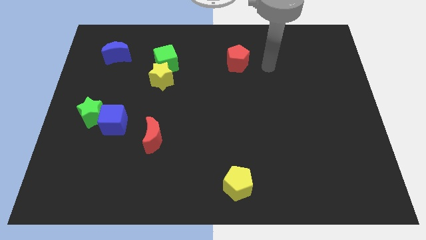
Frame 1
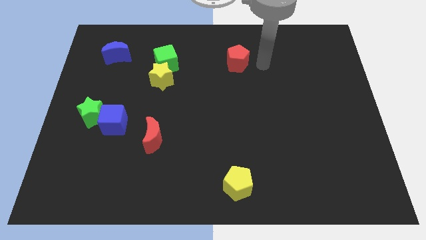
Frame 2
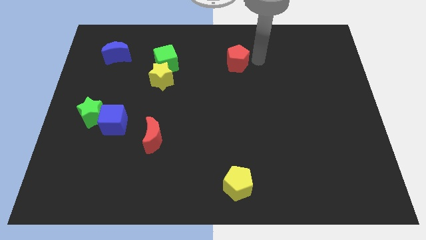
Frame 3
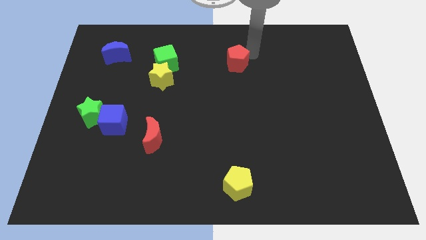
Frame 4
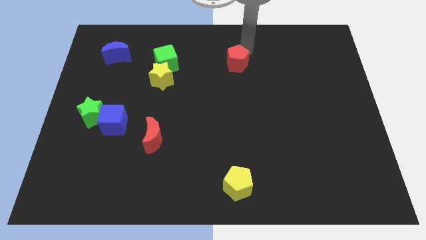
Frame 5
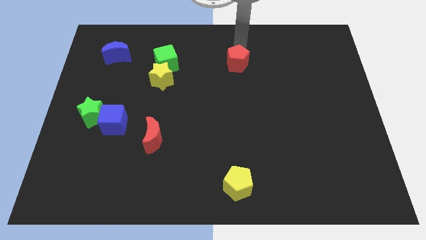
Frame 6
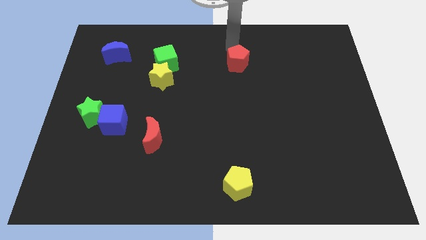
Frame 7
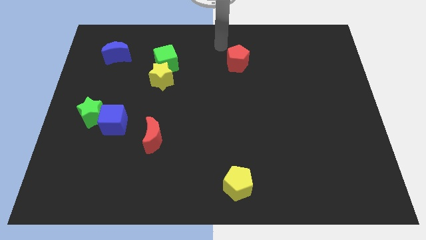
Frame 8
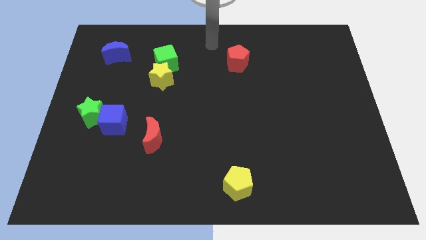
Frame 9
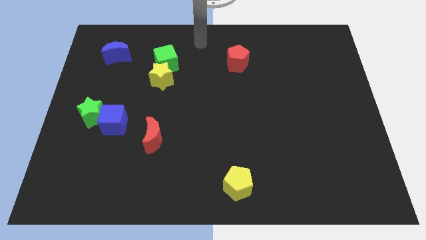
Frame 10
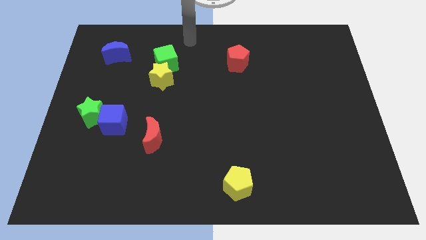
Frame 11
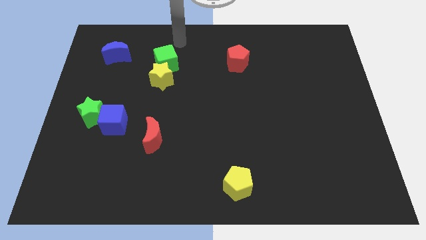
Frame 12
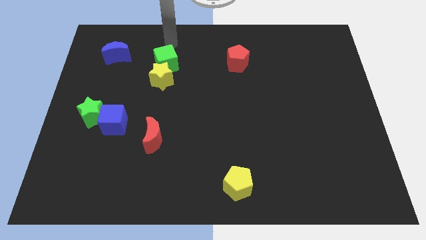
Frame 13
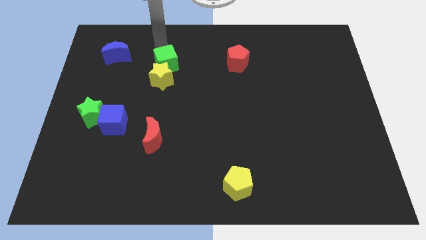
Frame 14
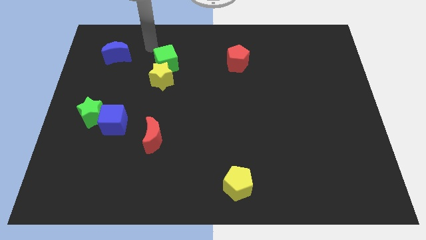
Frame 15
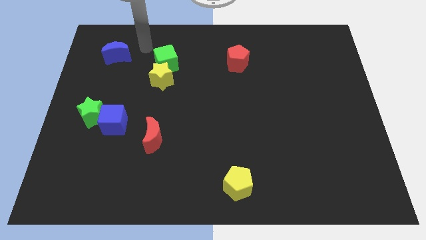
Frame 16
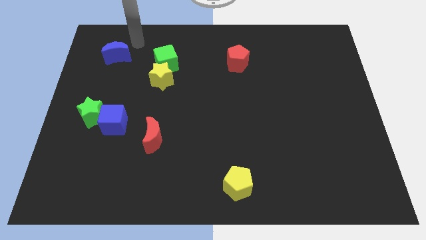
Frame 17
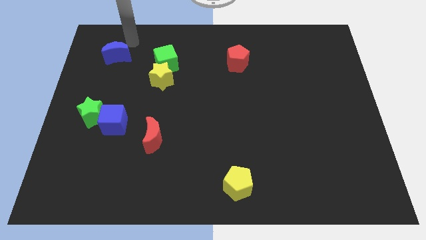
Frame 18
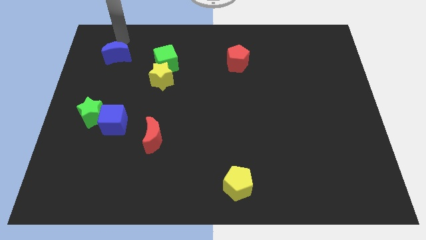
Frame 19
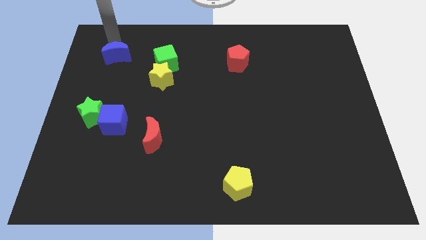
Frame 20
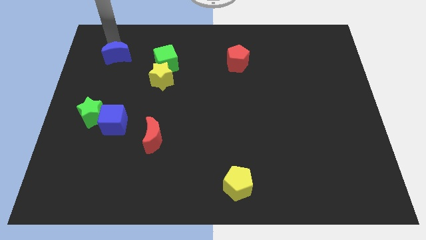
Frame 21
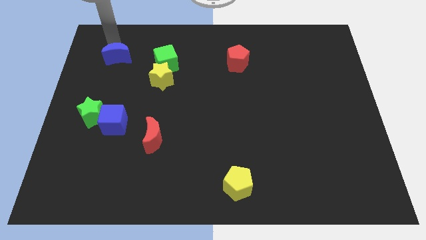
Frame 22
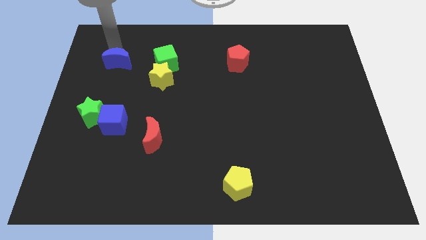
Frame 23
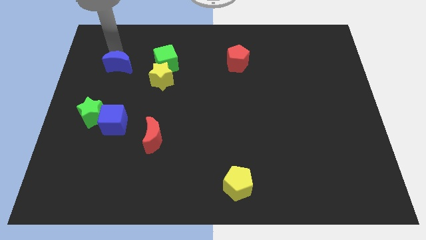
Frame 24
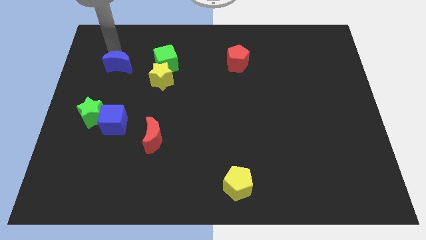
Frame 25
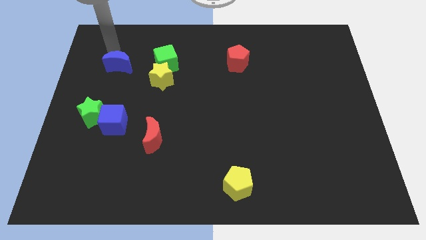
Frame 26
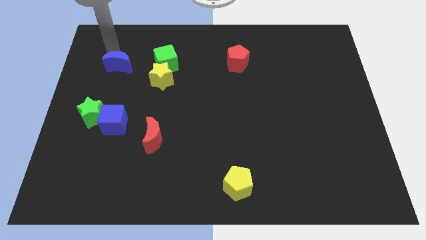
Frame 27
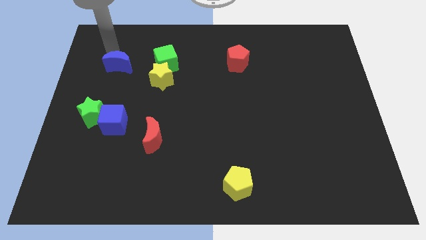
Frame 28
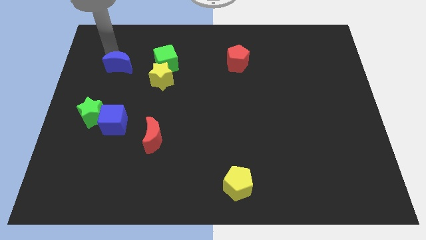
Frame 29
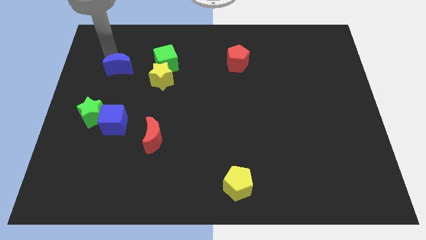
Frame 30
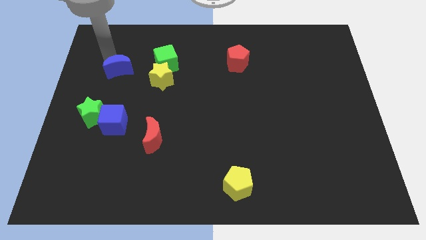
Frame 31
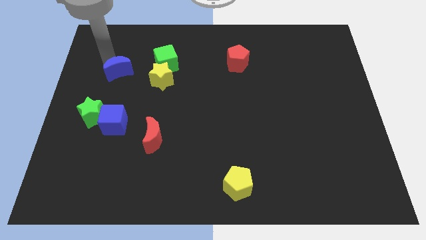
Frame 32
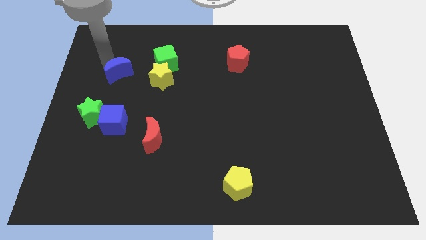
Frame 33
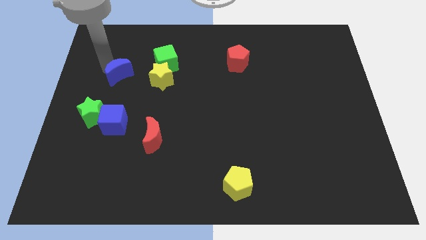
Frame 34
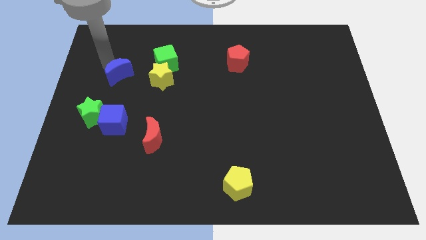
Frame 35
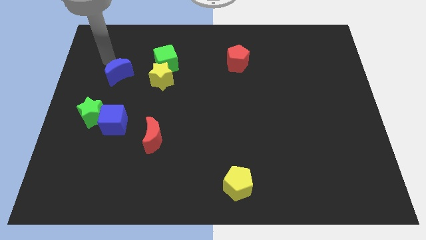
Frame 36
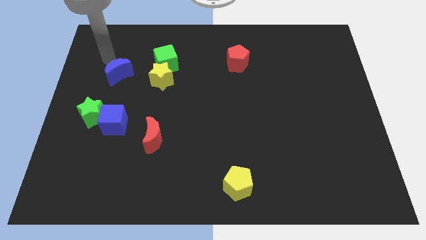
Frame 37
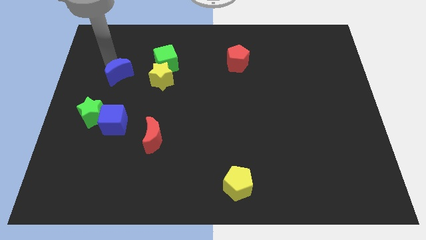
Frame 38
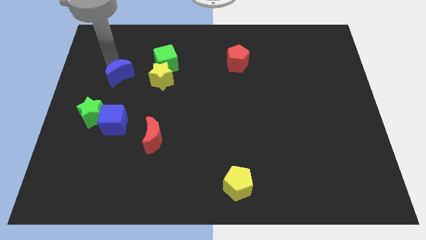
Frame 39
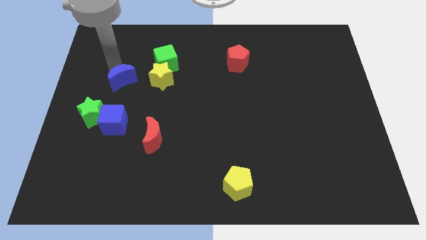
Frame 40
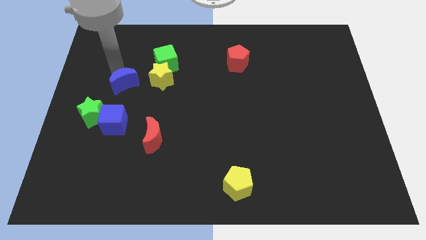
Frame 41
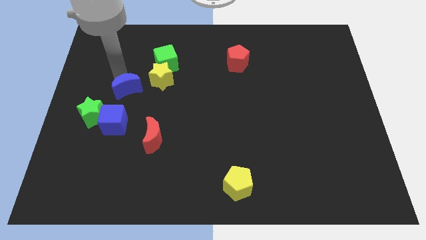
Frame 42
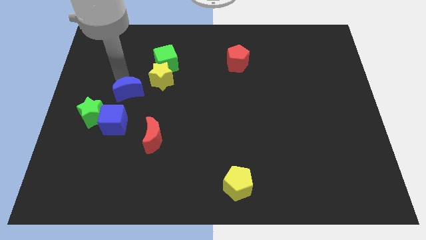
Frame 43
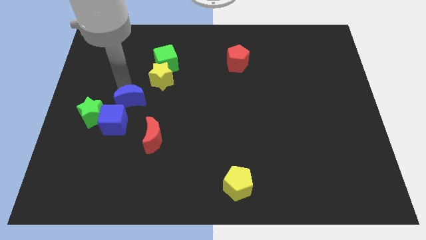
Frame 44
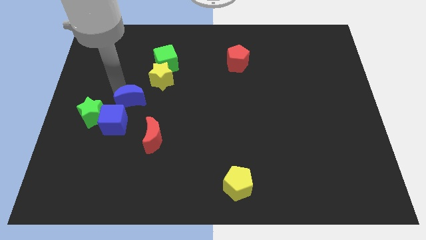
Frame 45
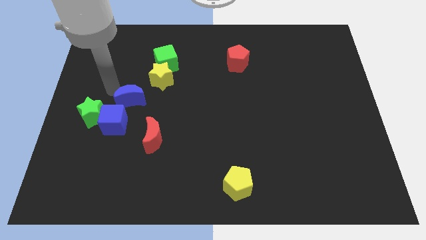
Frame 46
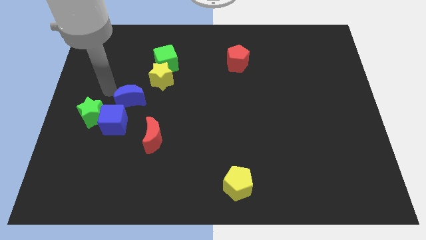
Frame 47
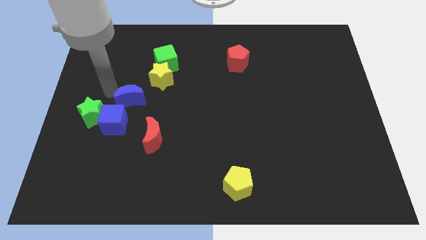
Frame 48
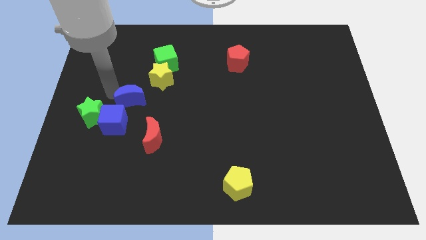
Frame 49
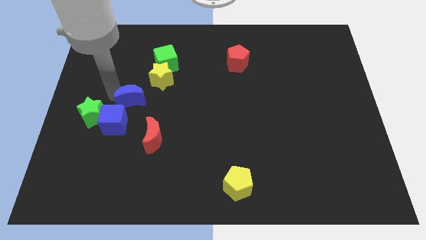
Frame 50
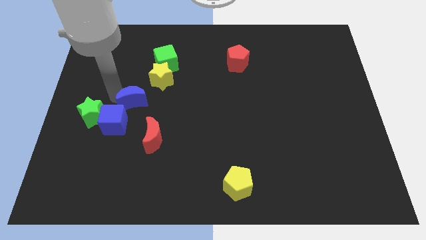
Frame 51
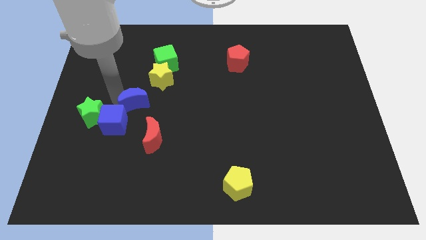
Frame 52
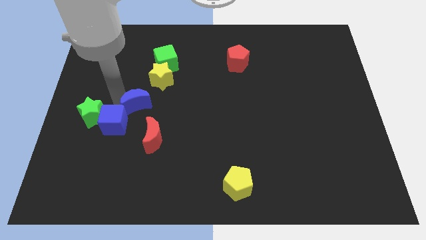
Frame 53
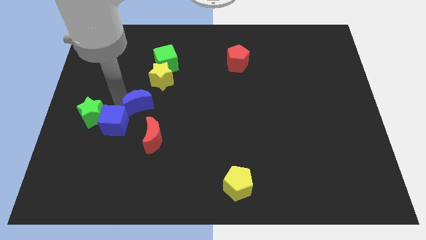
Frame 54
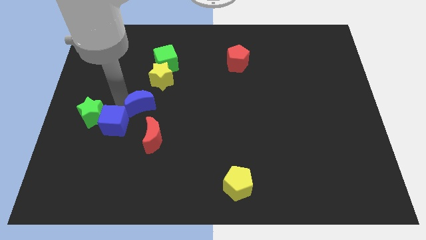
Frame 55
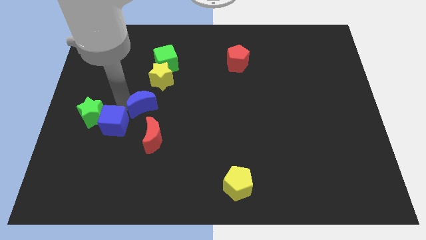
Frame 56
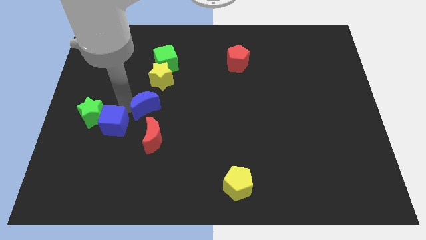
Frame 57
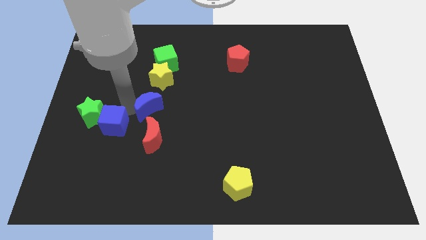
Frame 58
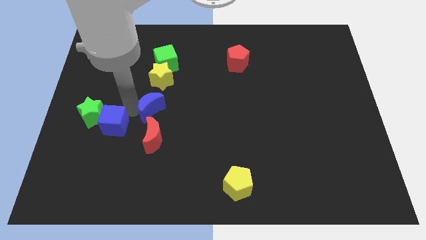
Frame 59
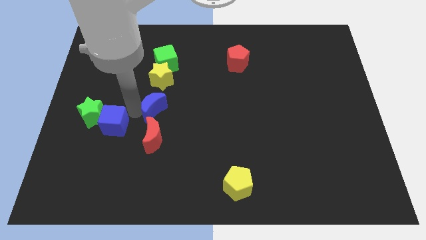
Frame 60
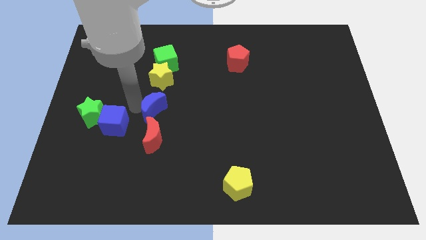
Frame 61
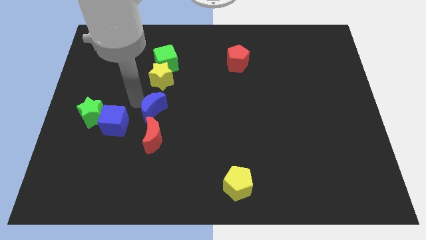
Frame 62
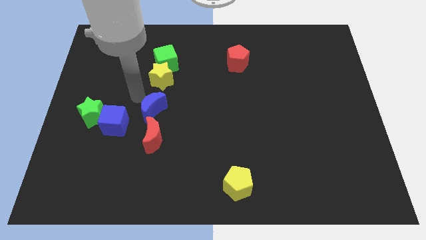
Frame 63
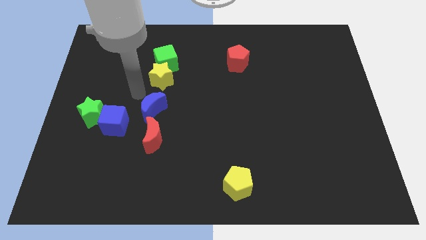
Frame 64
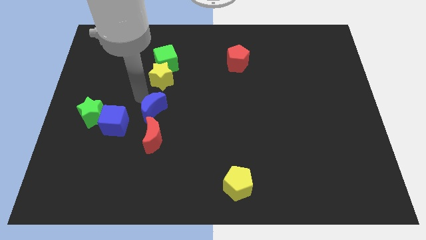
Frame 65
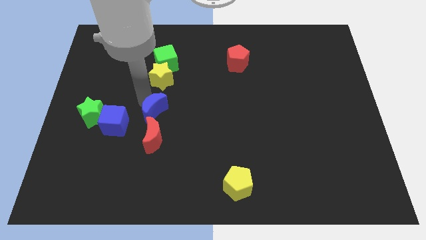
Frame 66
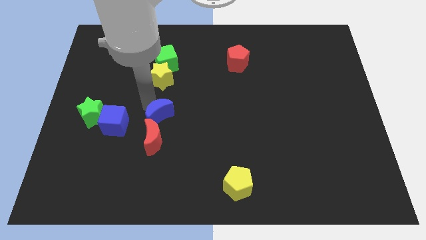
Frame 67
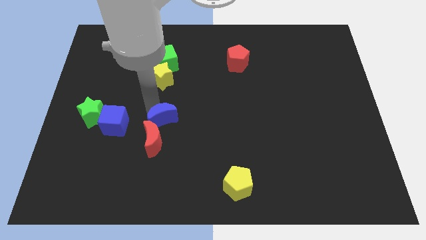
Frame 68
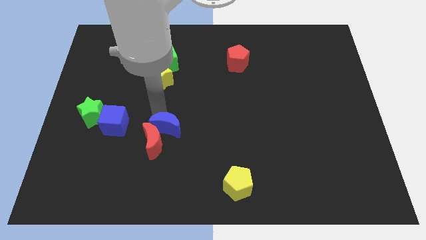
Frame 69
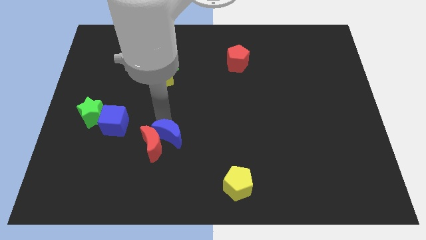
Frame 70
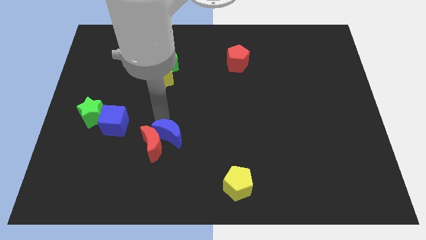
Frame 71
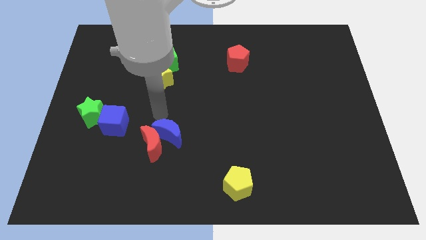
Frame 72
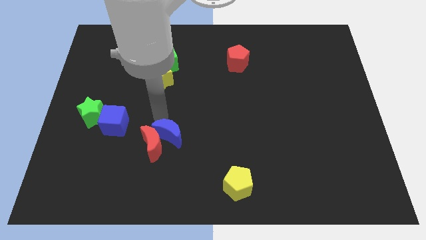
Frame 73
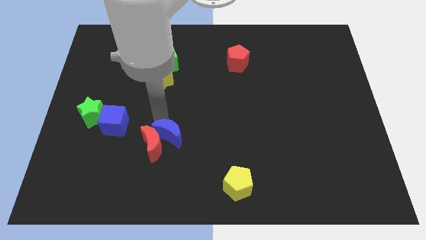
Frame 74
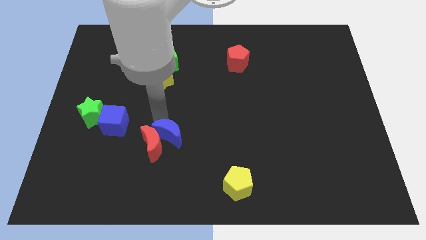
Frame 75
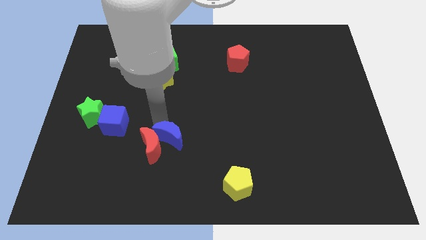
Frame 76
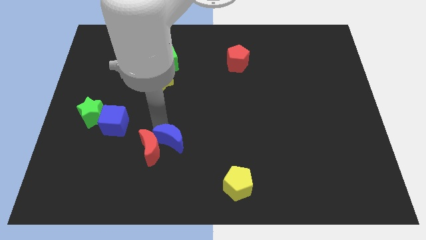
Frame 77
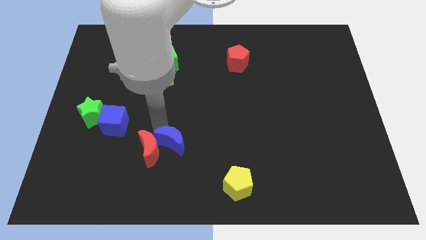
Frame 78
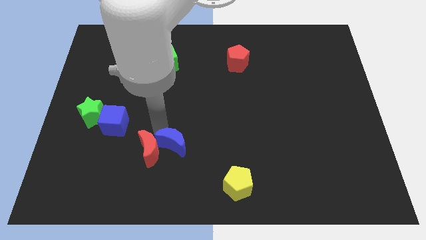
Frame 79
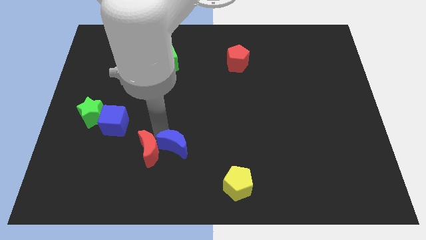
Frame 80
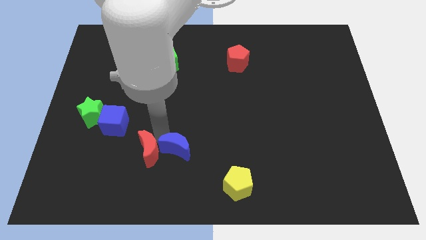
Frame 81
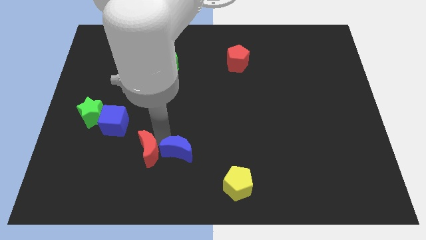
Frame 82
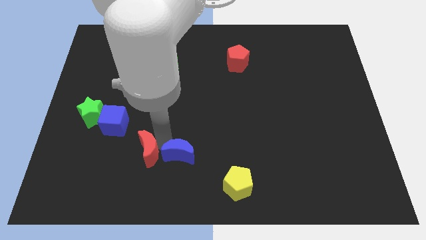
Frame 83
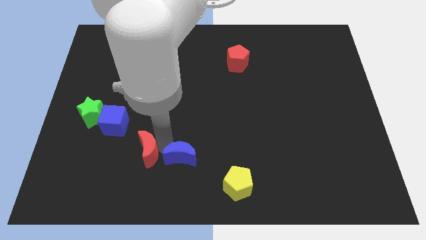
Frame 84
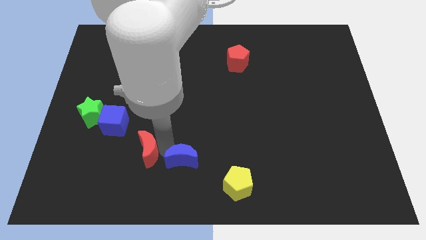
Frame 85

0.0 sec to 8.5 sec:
put the blue moon to the bottom side
